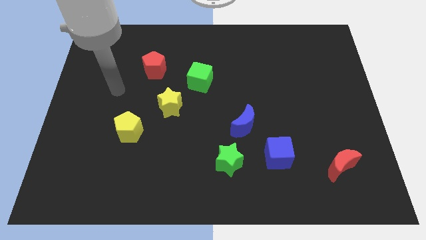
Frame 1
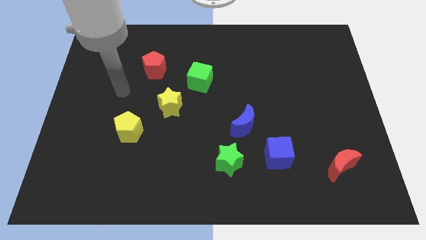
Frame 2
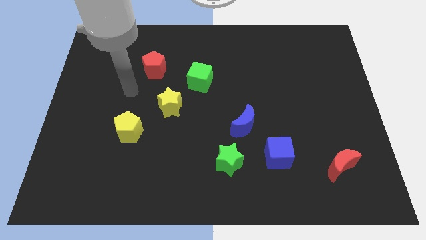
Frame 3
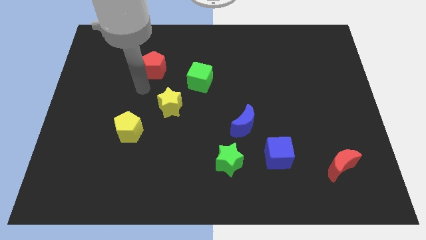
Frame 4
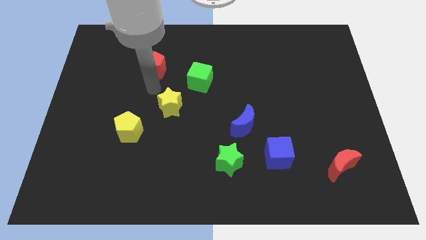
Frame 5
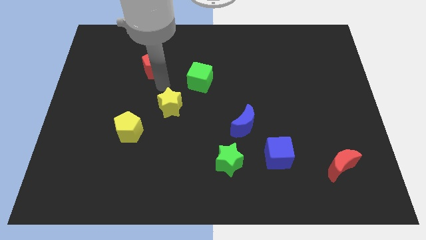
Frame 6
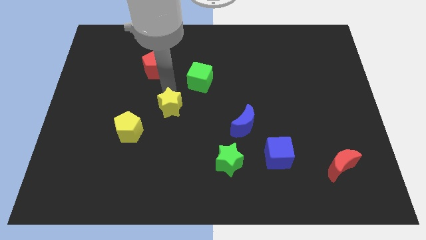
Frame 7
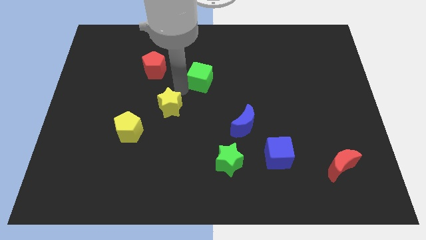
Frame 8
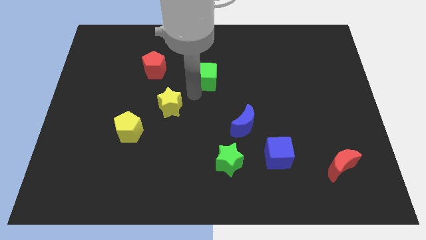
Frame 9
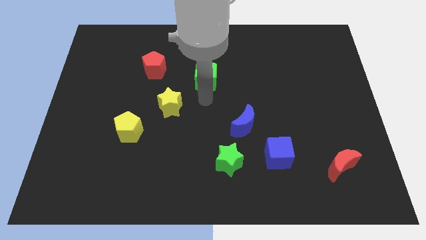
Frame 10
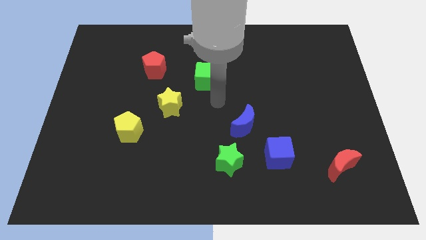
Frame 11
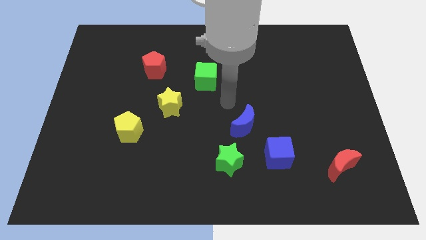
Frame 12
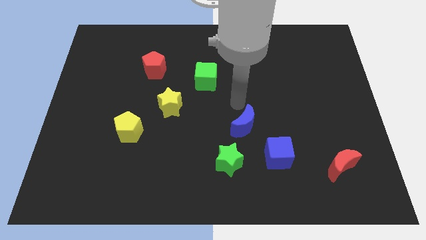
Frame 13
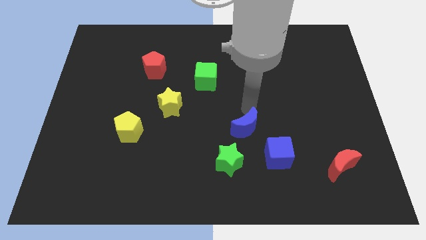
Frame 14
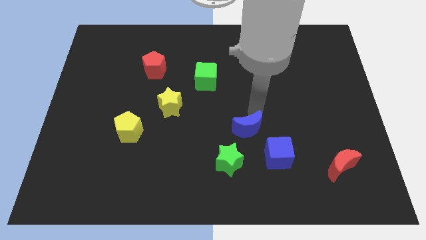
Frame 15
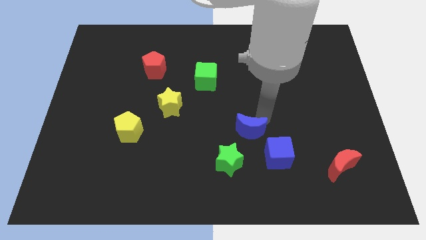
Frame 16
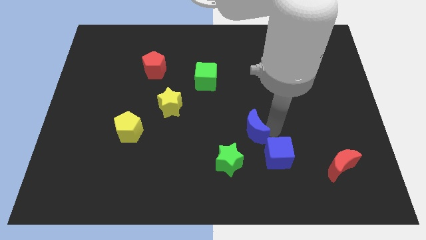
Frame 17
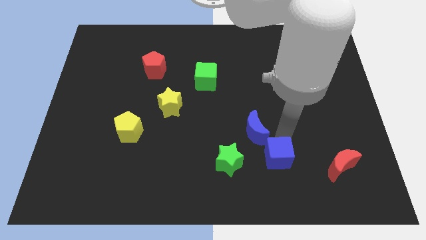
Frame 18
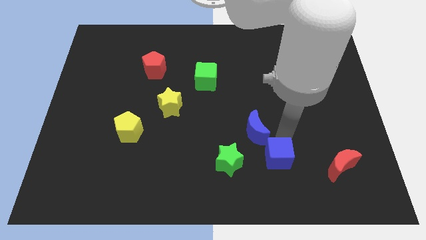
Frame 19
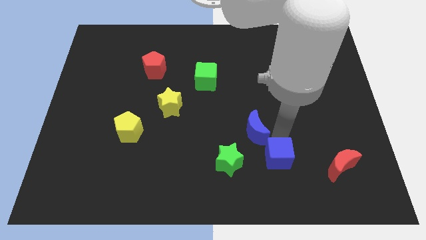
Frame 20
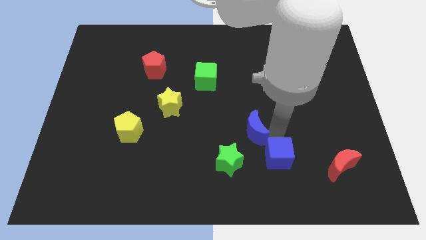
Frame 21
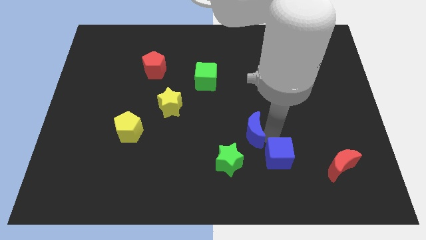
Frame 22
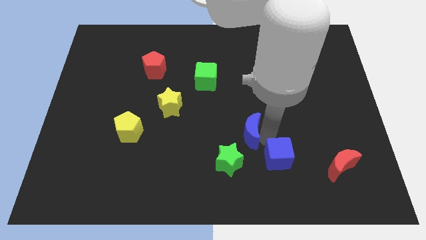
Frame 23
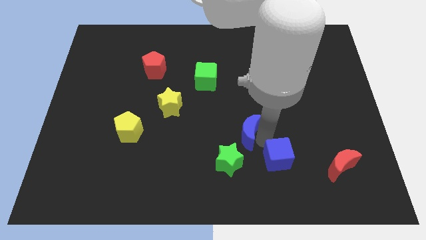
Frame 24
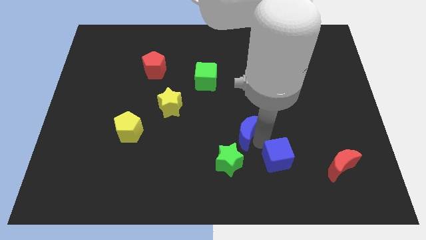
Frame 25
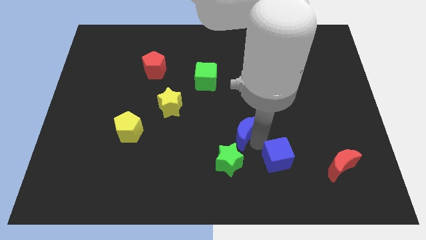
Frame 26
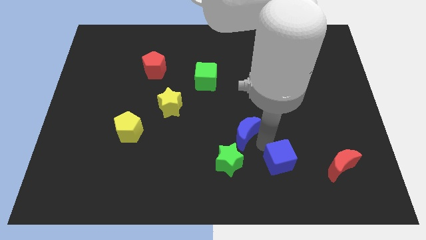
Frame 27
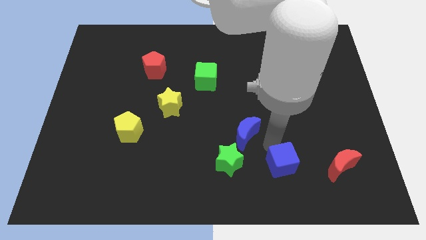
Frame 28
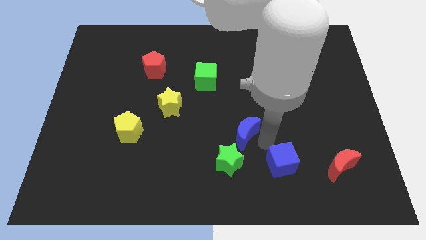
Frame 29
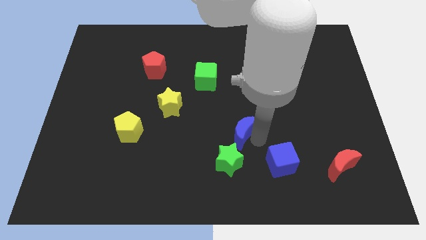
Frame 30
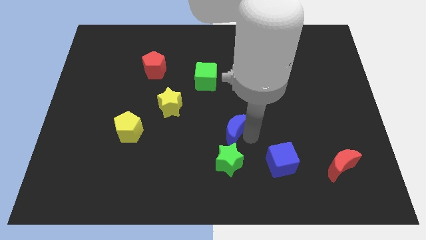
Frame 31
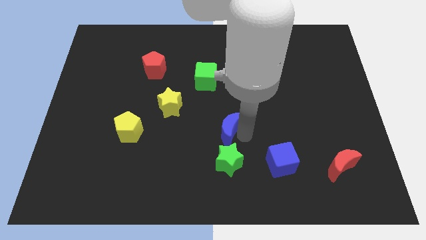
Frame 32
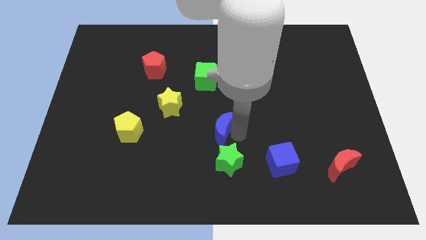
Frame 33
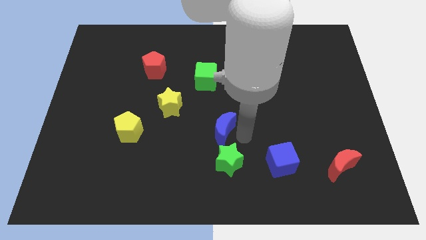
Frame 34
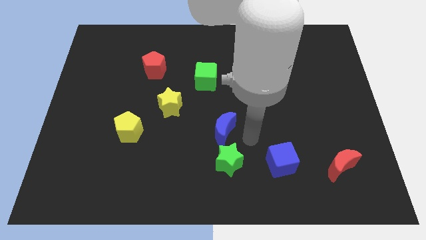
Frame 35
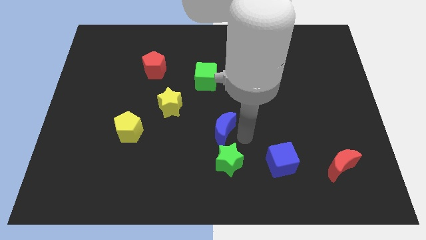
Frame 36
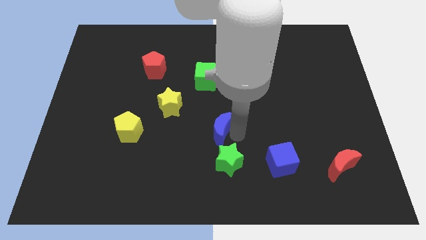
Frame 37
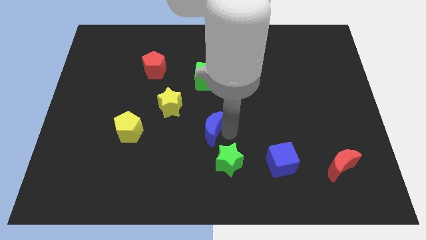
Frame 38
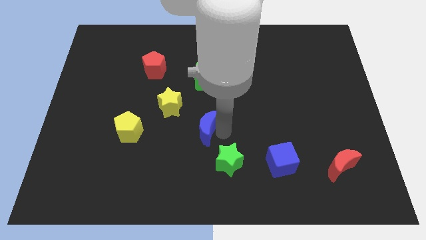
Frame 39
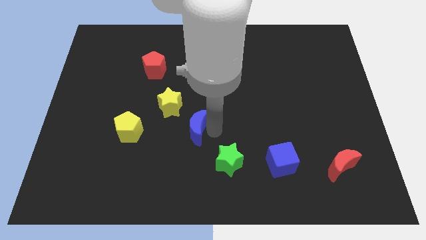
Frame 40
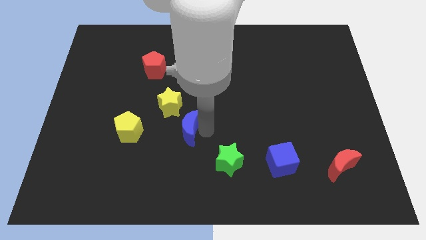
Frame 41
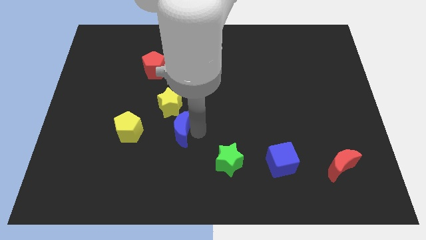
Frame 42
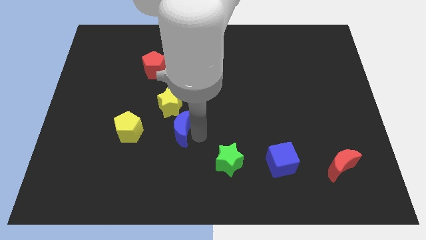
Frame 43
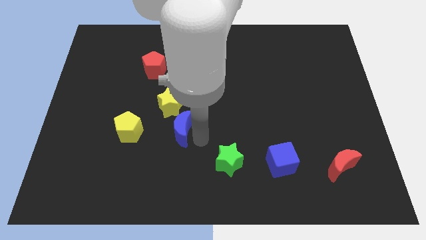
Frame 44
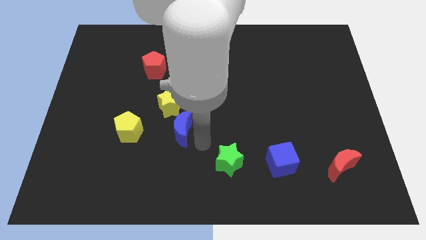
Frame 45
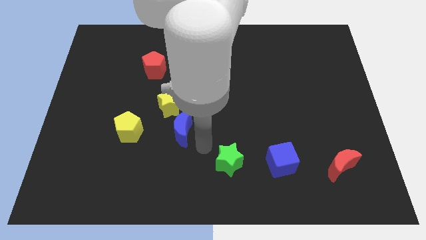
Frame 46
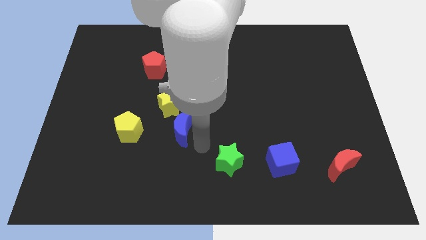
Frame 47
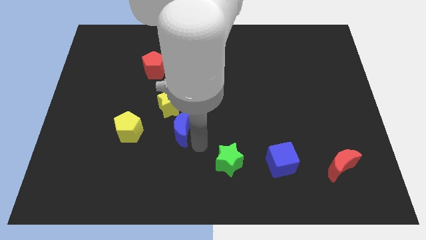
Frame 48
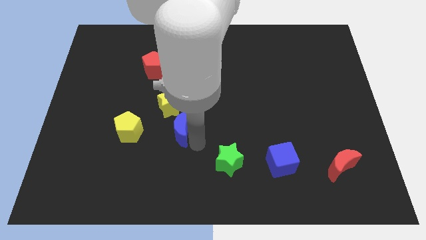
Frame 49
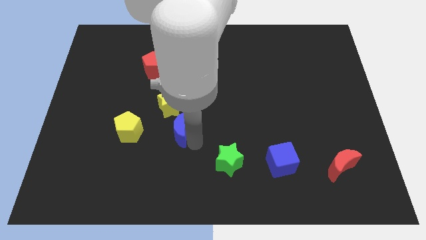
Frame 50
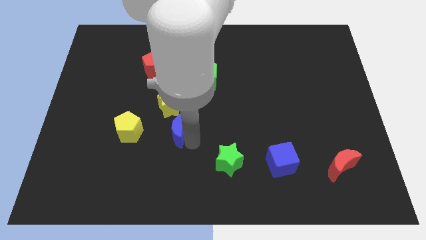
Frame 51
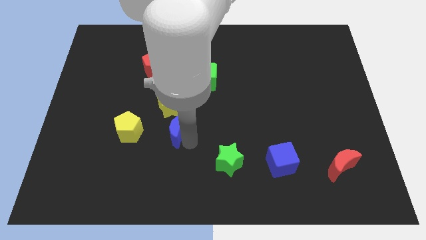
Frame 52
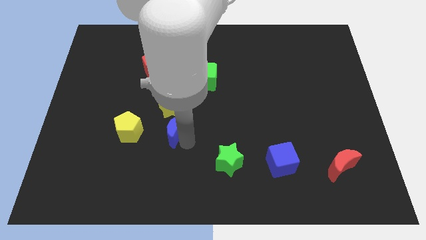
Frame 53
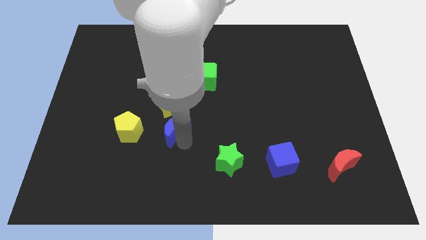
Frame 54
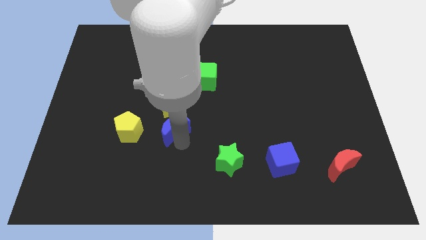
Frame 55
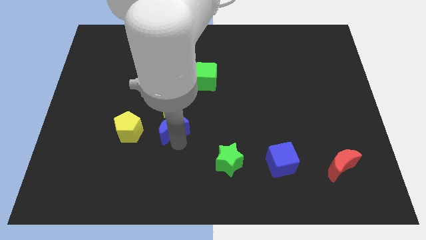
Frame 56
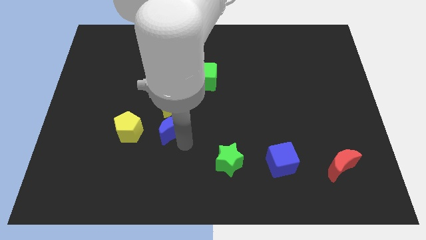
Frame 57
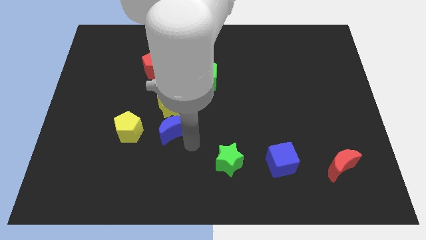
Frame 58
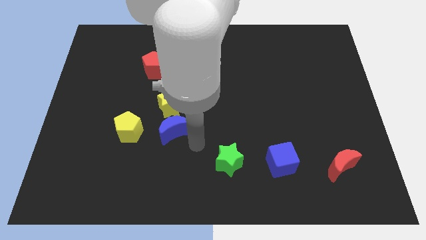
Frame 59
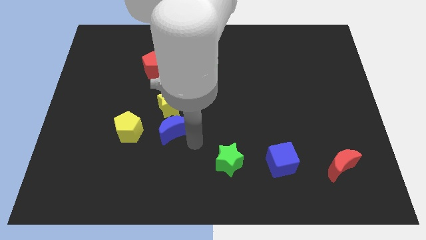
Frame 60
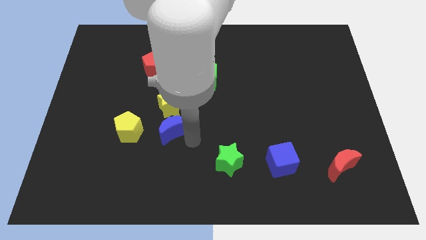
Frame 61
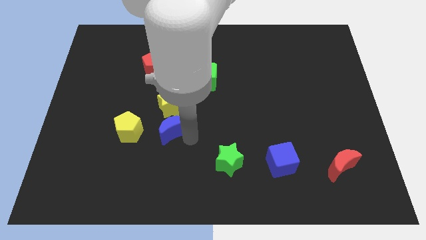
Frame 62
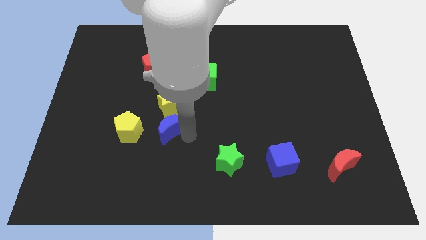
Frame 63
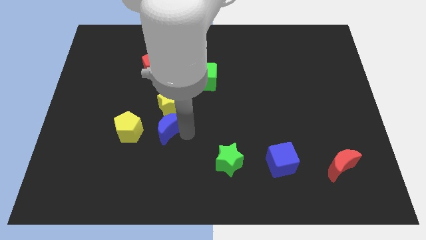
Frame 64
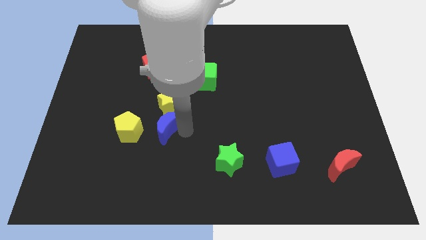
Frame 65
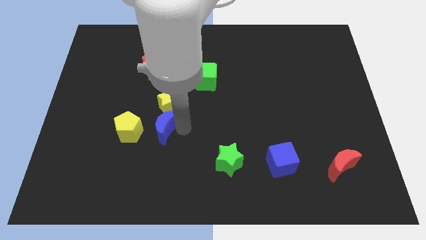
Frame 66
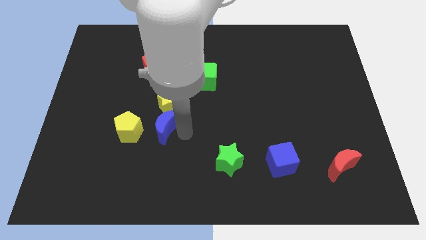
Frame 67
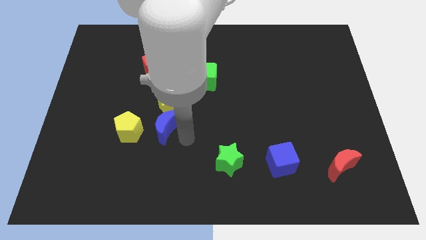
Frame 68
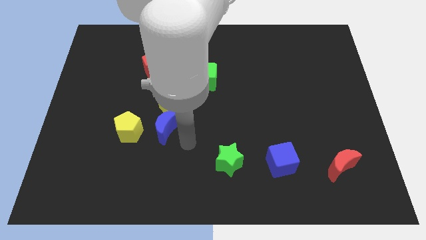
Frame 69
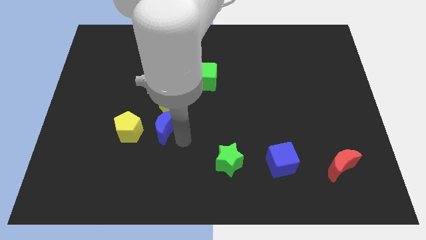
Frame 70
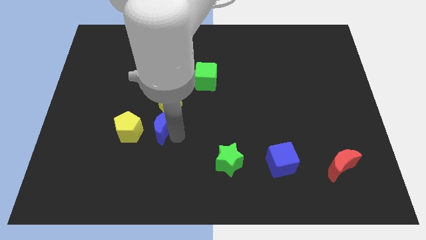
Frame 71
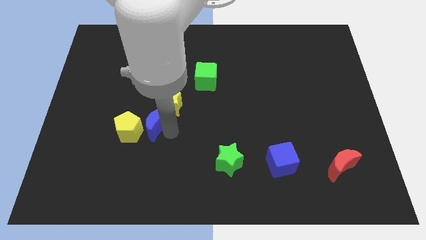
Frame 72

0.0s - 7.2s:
move the blue moon to the left

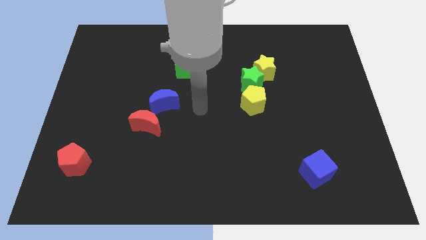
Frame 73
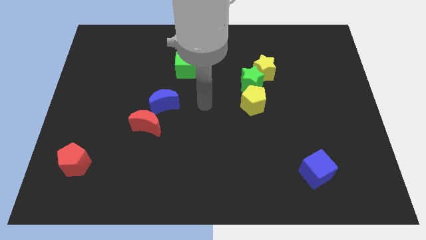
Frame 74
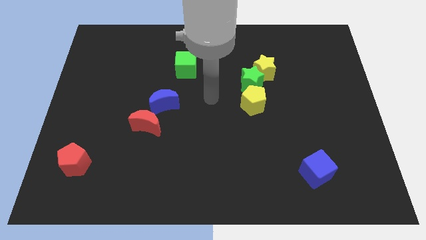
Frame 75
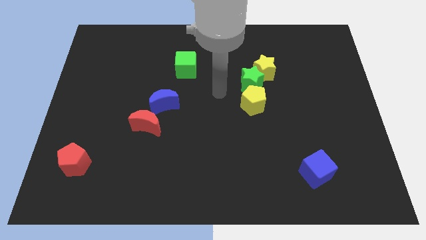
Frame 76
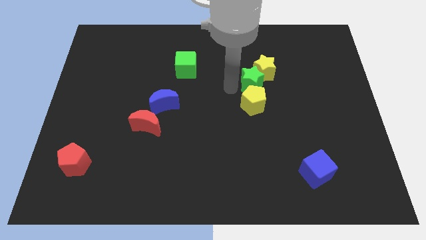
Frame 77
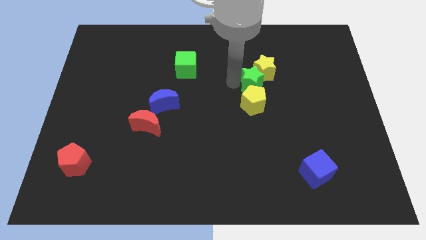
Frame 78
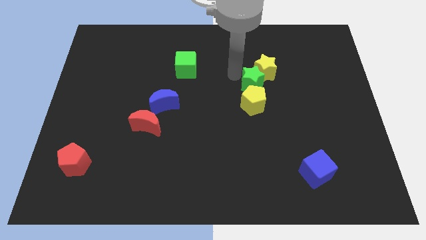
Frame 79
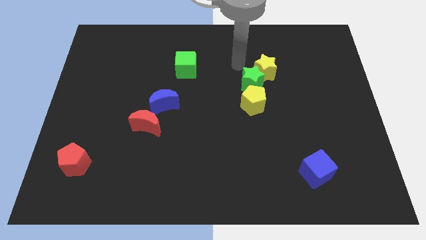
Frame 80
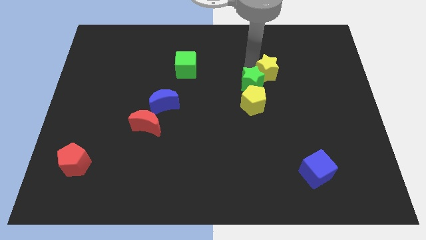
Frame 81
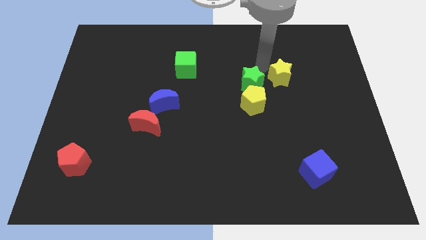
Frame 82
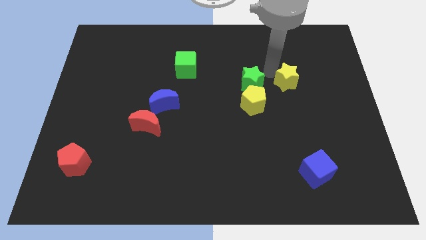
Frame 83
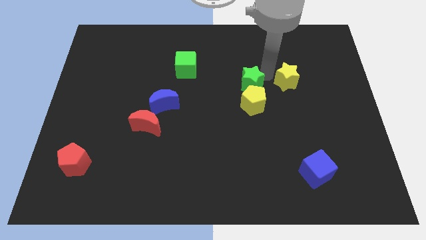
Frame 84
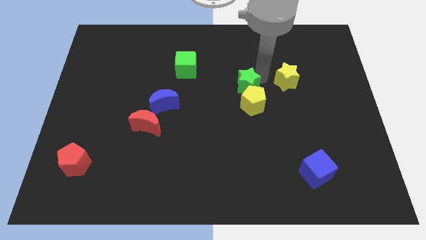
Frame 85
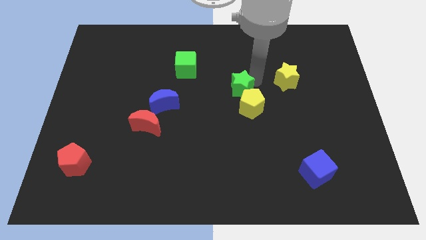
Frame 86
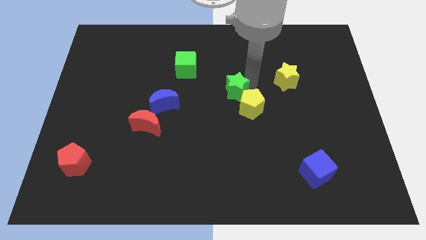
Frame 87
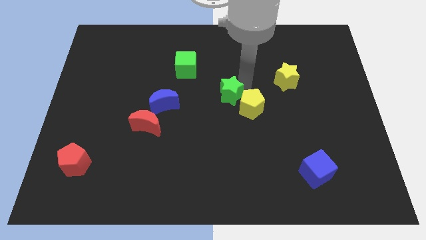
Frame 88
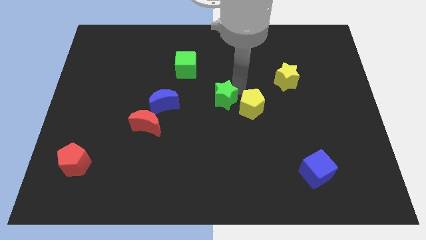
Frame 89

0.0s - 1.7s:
move the green star slightly downwards and to the left
